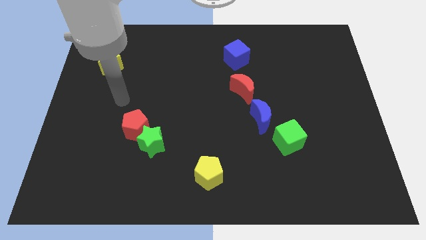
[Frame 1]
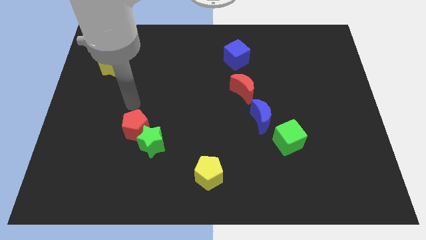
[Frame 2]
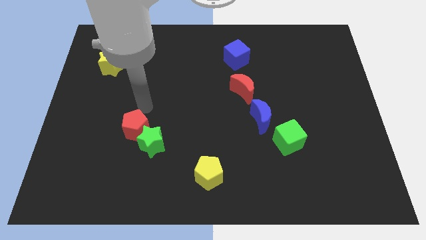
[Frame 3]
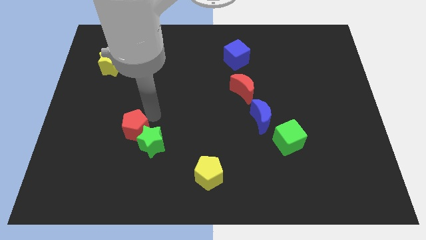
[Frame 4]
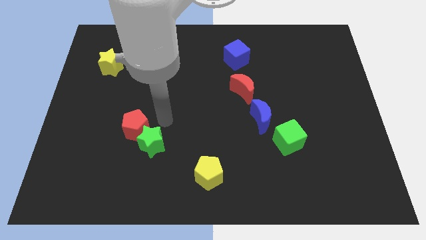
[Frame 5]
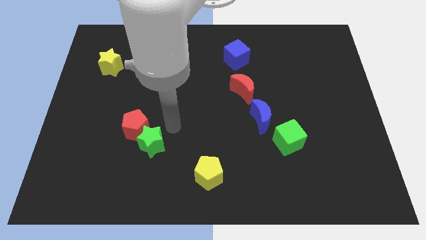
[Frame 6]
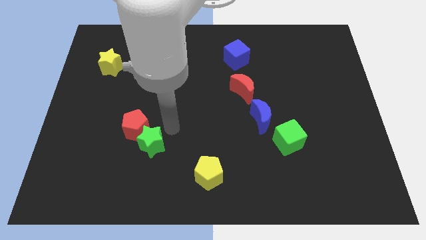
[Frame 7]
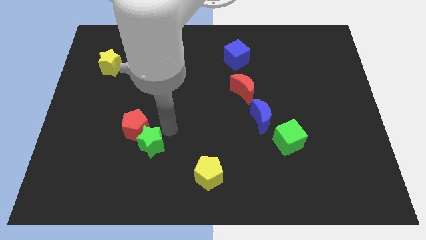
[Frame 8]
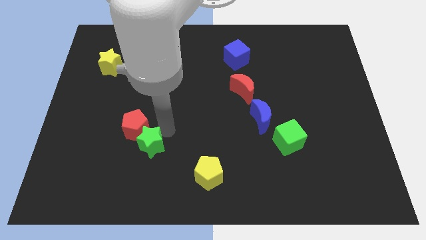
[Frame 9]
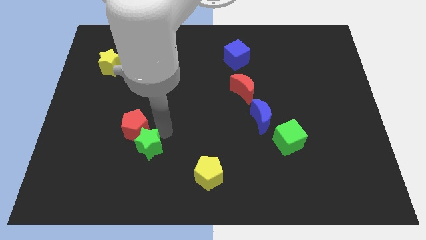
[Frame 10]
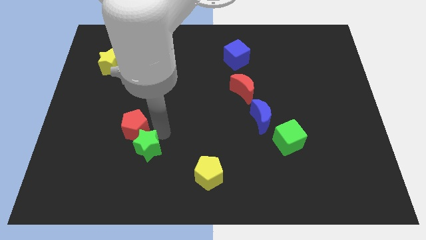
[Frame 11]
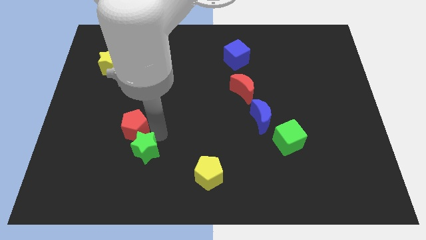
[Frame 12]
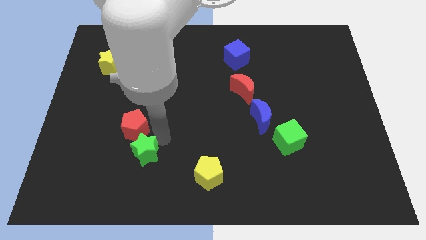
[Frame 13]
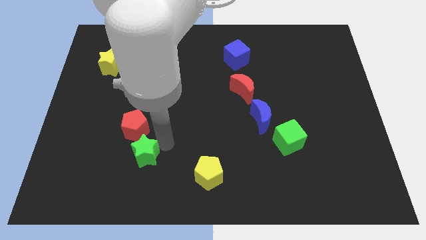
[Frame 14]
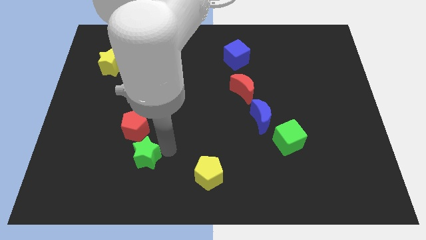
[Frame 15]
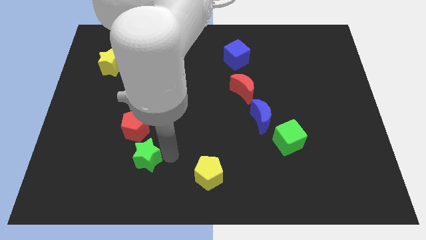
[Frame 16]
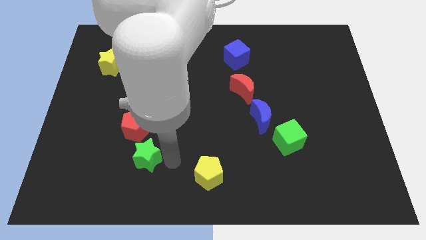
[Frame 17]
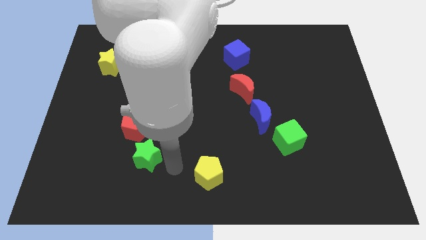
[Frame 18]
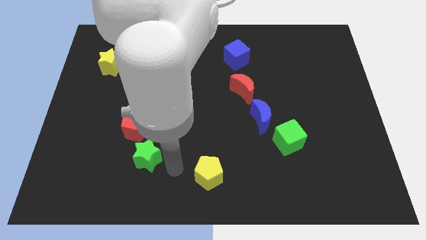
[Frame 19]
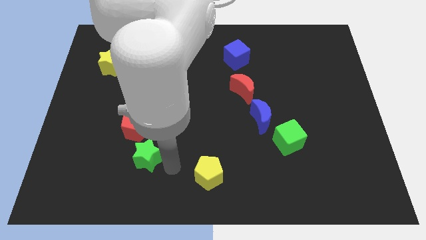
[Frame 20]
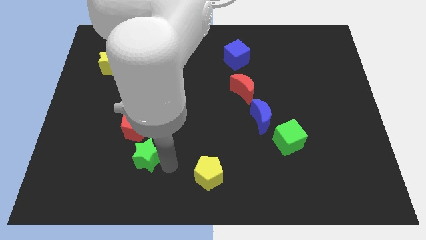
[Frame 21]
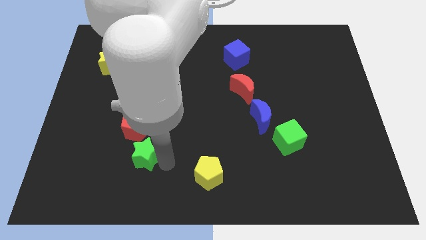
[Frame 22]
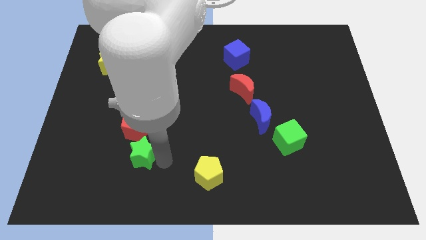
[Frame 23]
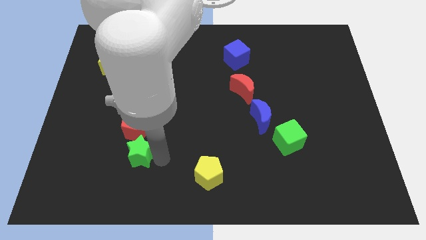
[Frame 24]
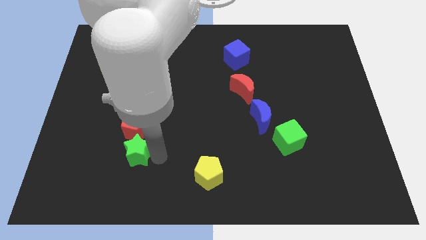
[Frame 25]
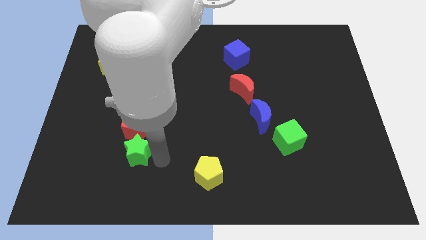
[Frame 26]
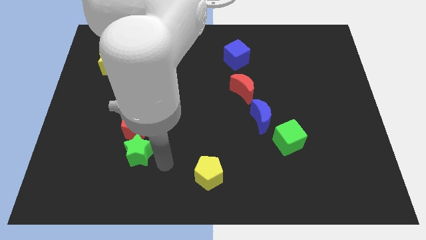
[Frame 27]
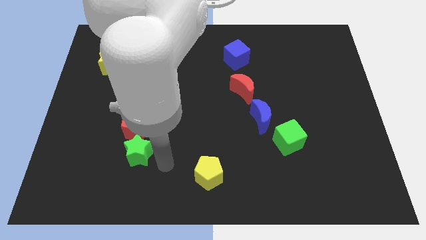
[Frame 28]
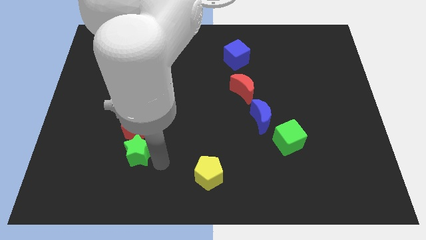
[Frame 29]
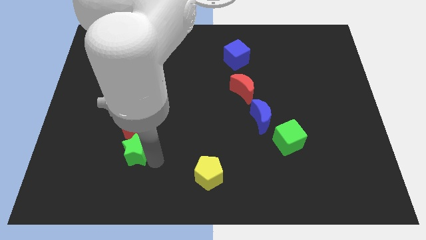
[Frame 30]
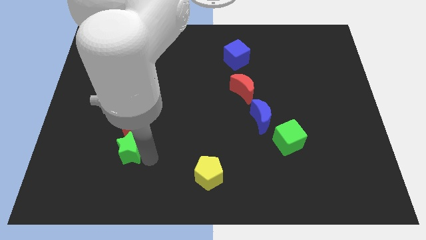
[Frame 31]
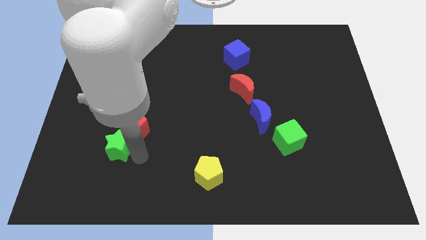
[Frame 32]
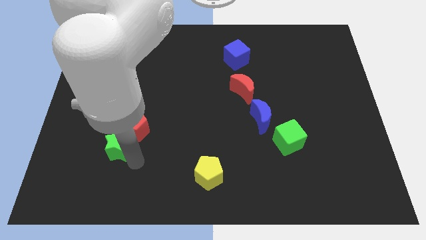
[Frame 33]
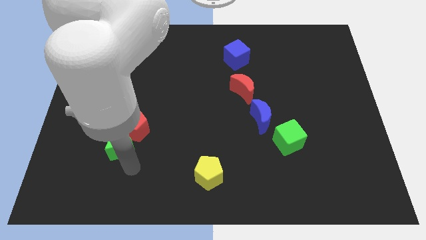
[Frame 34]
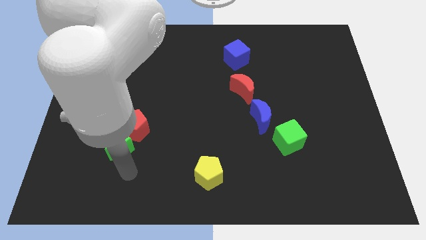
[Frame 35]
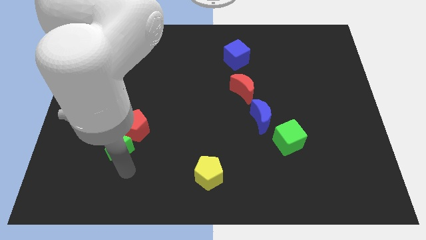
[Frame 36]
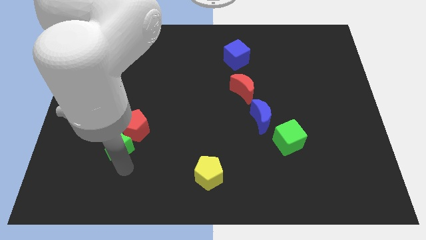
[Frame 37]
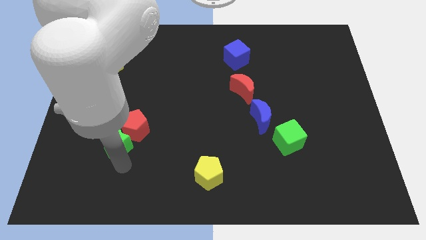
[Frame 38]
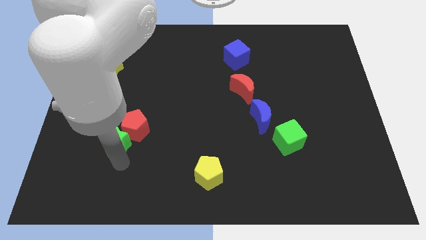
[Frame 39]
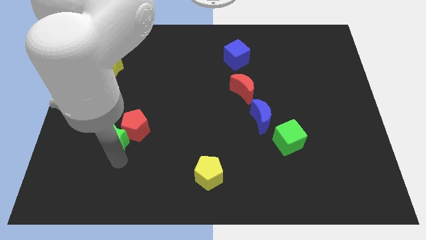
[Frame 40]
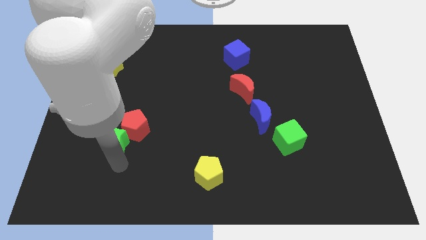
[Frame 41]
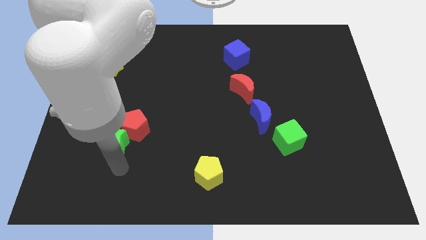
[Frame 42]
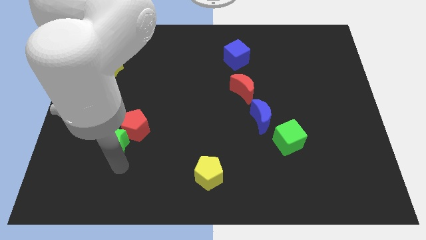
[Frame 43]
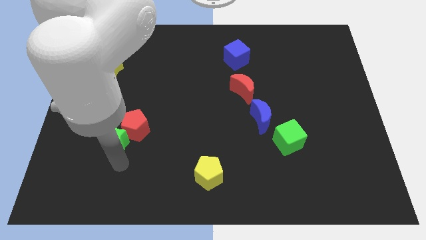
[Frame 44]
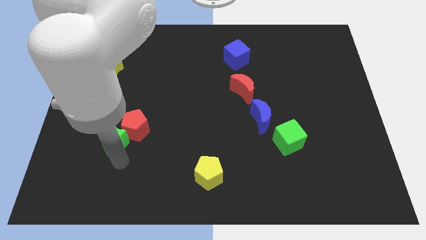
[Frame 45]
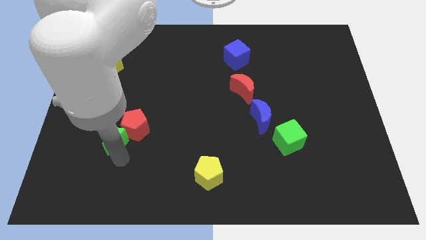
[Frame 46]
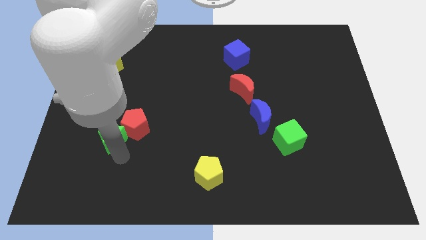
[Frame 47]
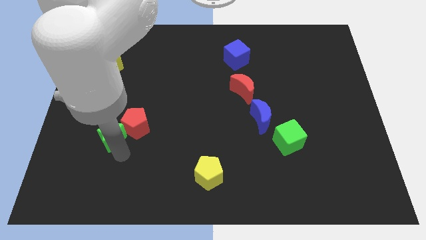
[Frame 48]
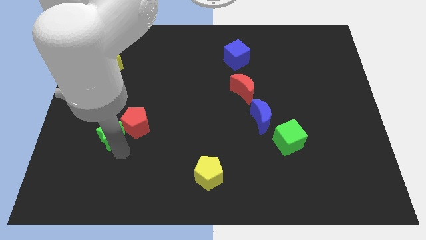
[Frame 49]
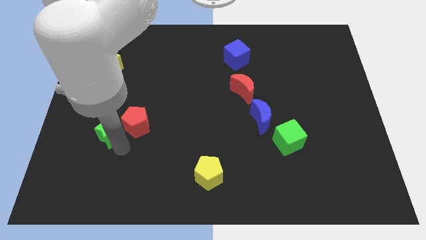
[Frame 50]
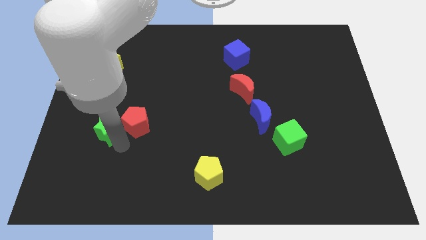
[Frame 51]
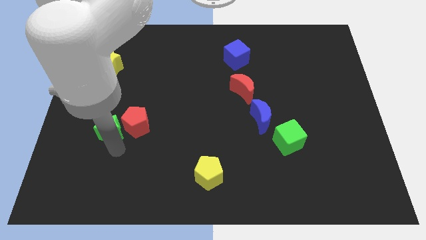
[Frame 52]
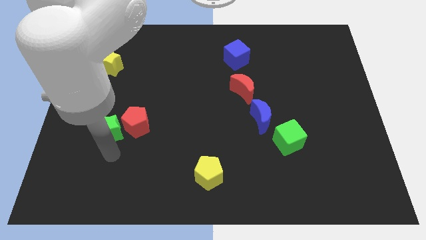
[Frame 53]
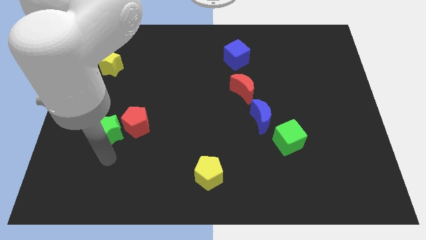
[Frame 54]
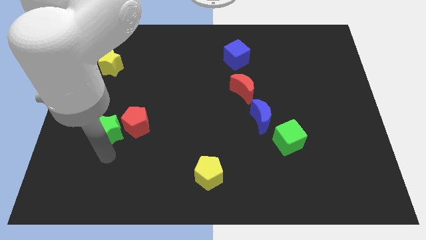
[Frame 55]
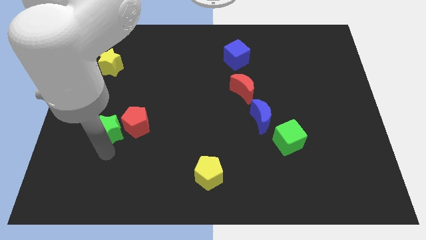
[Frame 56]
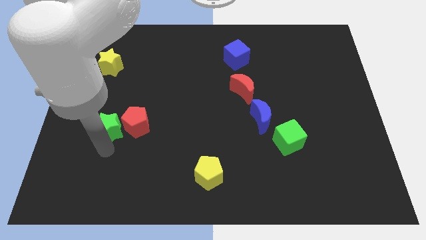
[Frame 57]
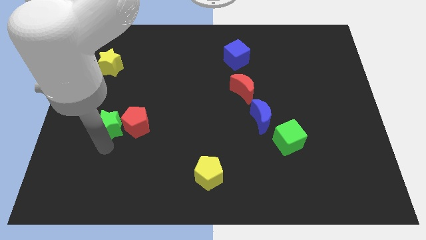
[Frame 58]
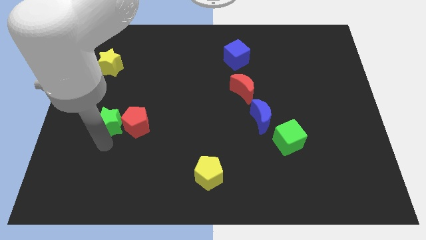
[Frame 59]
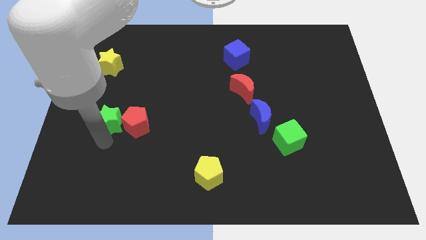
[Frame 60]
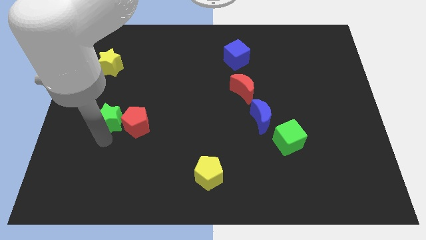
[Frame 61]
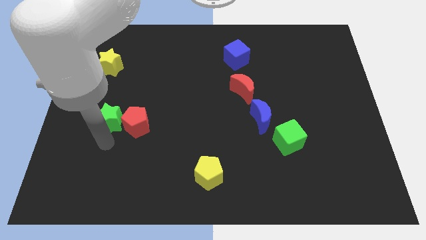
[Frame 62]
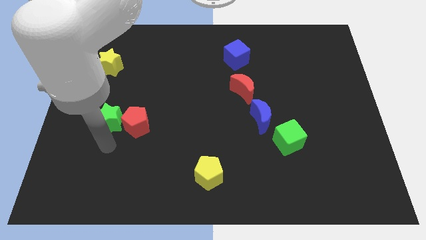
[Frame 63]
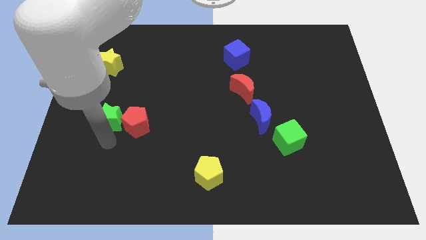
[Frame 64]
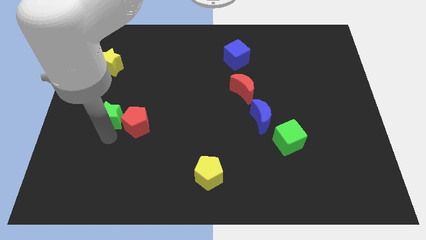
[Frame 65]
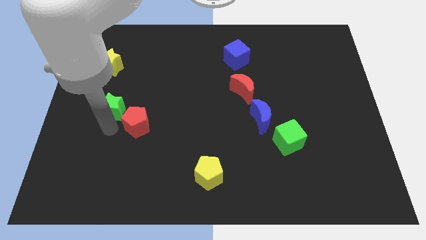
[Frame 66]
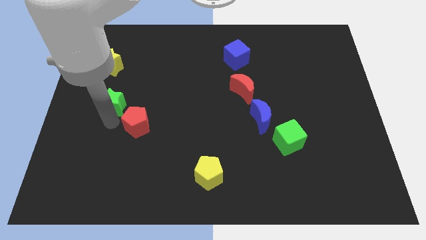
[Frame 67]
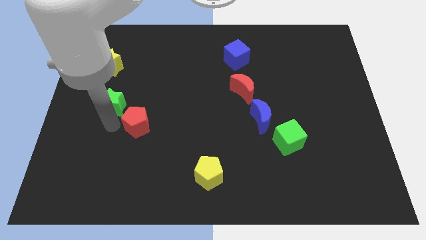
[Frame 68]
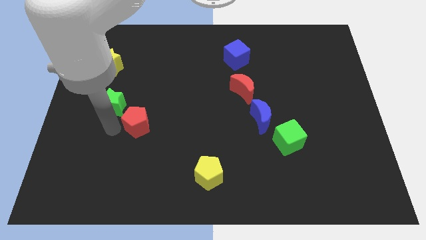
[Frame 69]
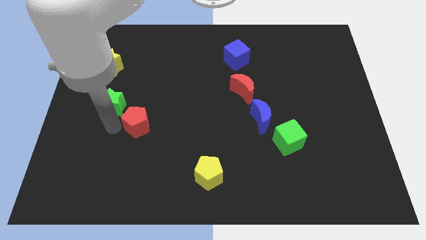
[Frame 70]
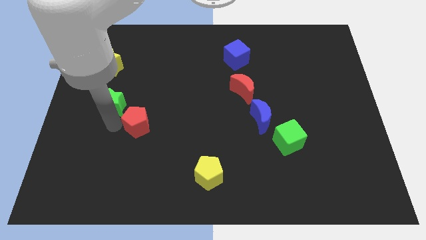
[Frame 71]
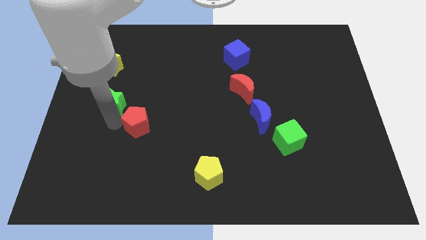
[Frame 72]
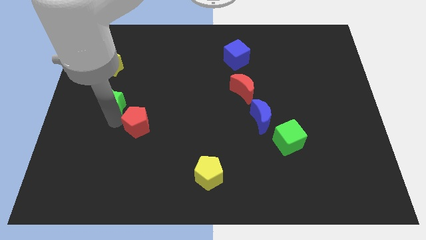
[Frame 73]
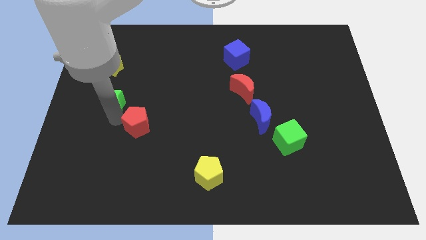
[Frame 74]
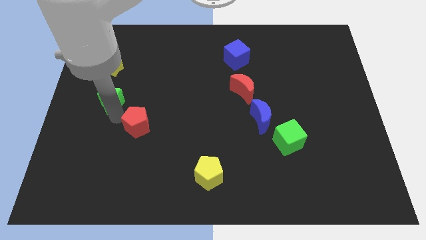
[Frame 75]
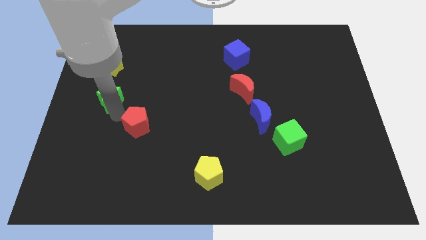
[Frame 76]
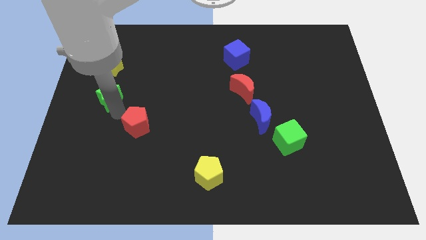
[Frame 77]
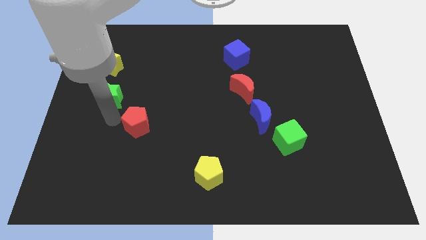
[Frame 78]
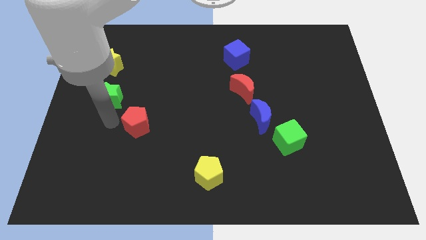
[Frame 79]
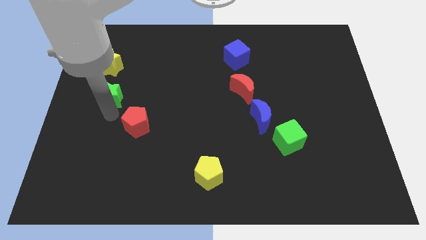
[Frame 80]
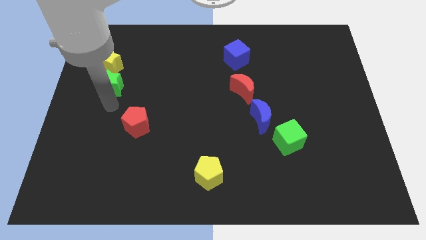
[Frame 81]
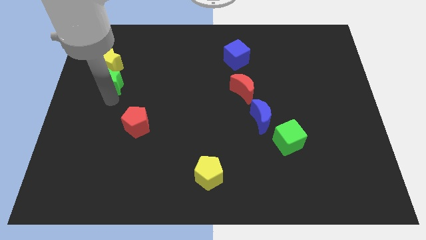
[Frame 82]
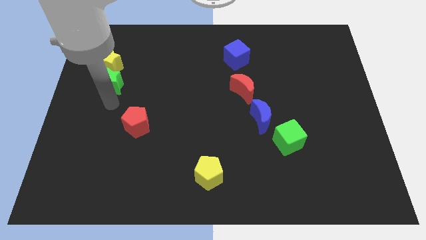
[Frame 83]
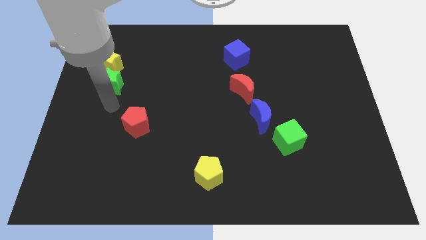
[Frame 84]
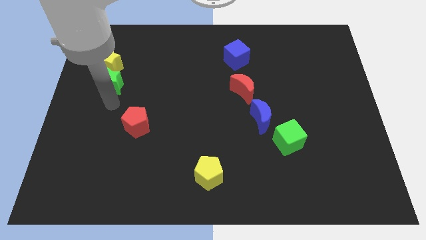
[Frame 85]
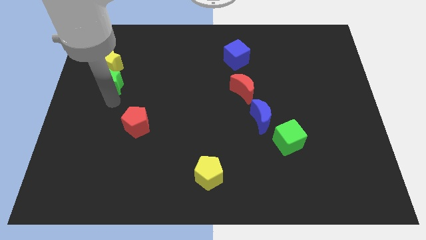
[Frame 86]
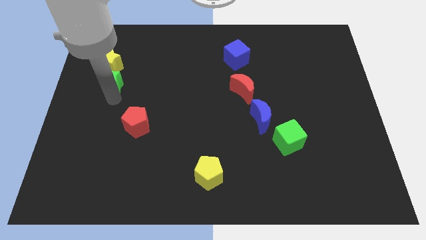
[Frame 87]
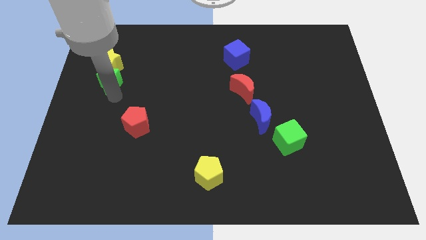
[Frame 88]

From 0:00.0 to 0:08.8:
put the green star next to the yellow star
